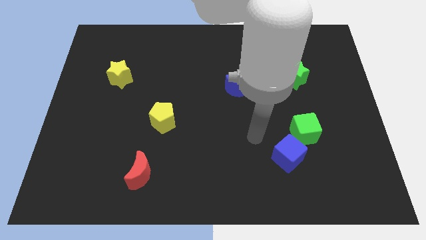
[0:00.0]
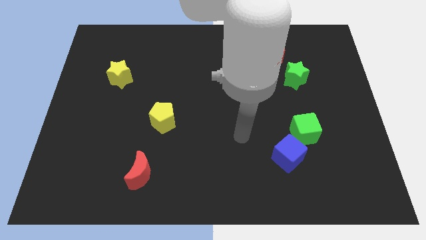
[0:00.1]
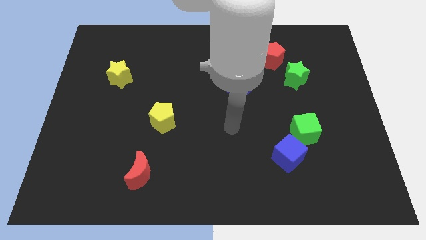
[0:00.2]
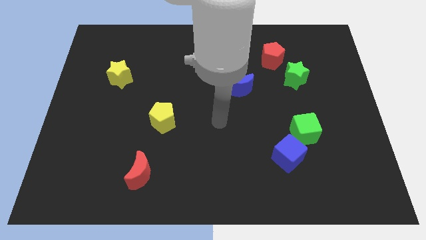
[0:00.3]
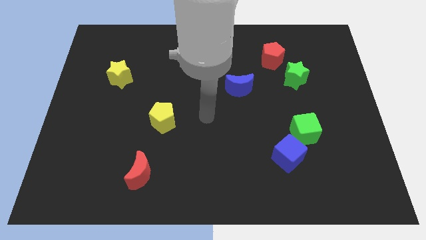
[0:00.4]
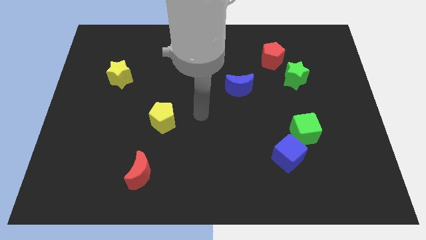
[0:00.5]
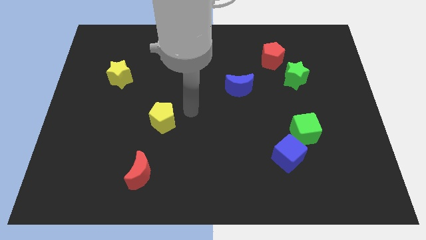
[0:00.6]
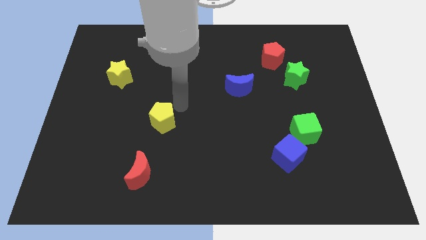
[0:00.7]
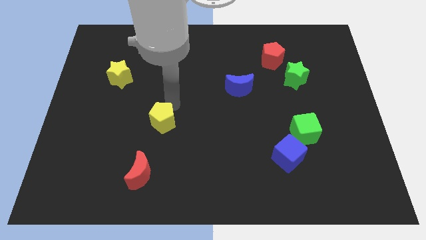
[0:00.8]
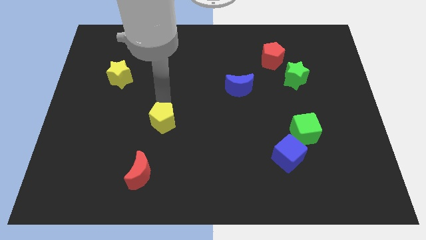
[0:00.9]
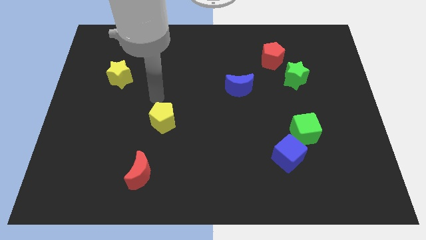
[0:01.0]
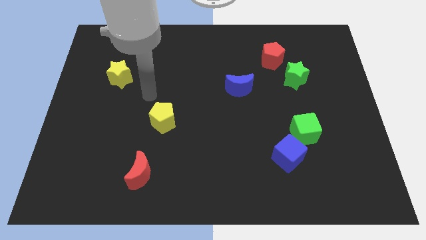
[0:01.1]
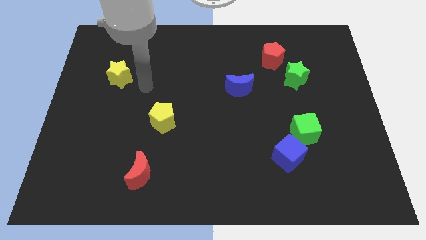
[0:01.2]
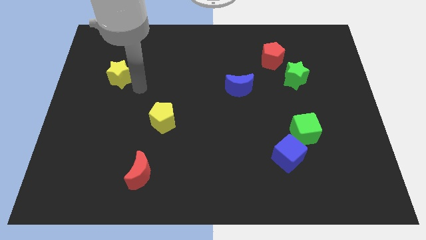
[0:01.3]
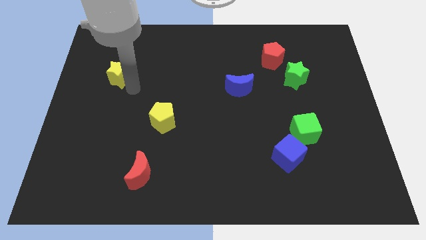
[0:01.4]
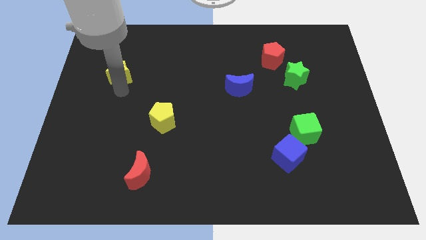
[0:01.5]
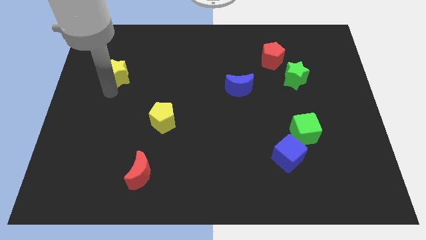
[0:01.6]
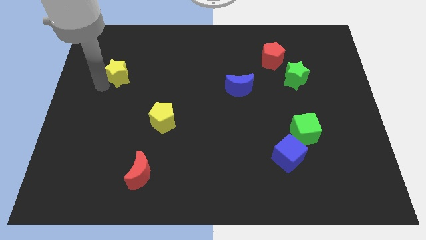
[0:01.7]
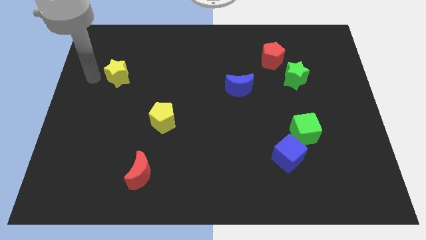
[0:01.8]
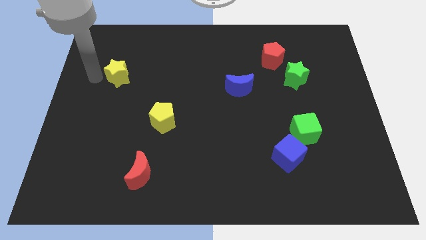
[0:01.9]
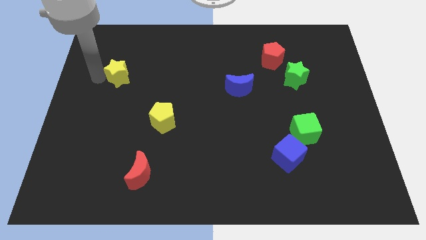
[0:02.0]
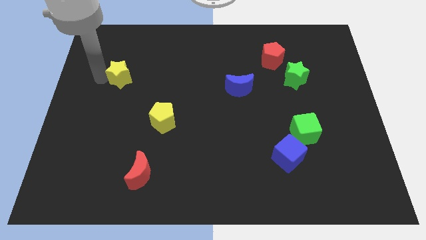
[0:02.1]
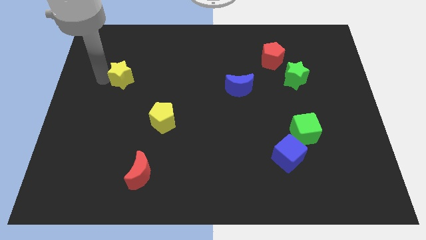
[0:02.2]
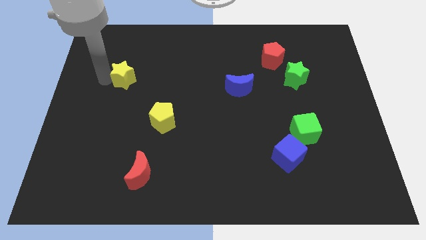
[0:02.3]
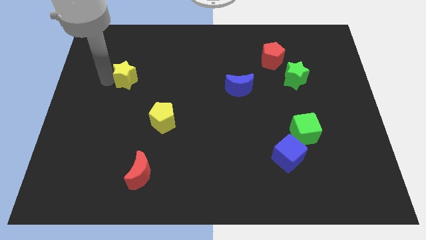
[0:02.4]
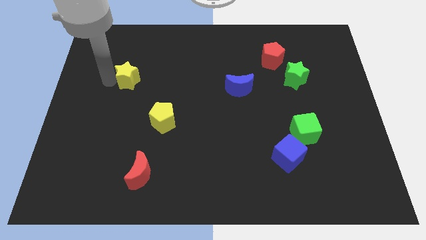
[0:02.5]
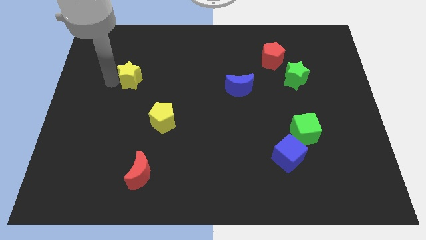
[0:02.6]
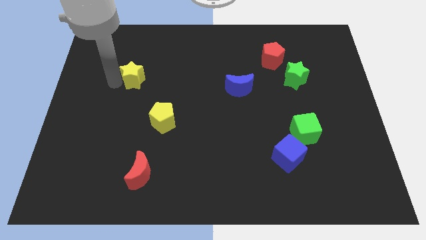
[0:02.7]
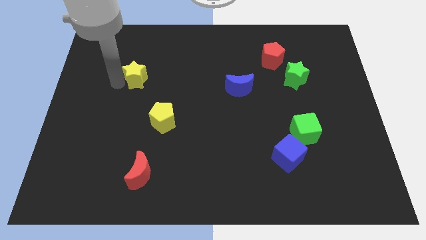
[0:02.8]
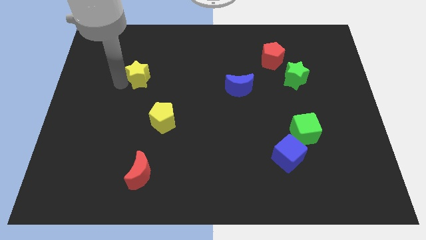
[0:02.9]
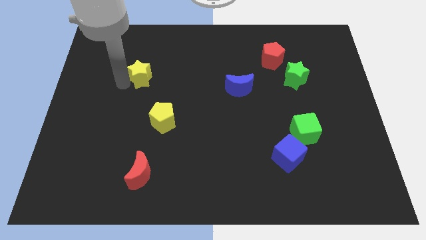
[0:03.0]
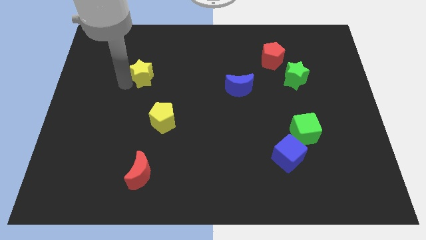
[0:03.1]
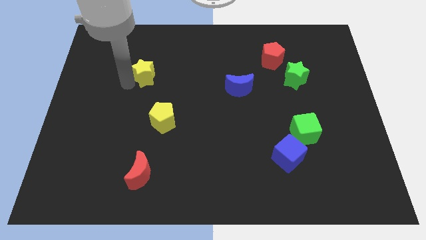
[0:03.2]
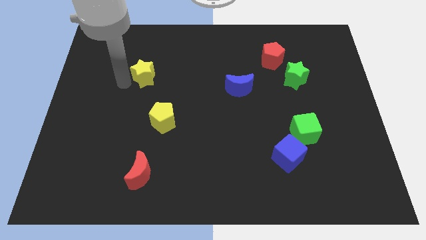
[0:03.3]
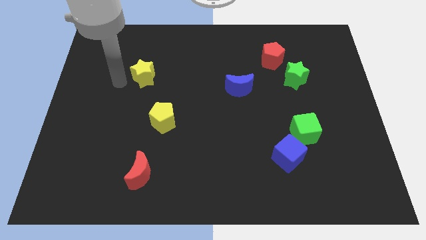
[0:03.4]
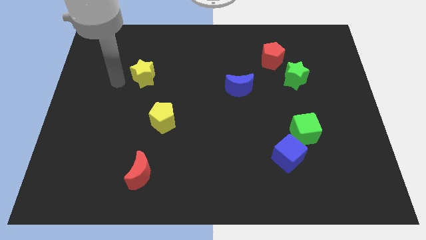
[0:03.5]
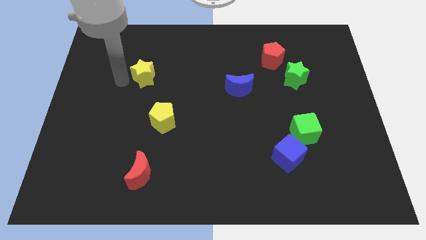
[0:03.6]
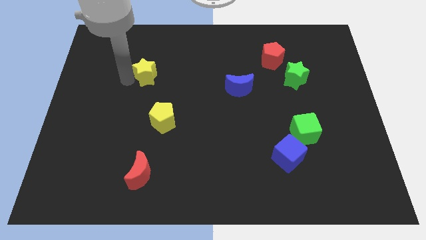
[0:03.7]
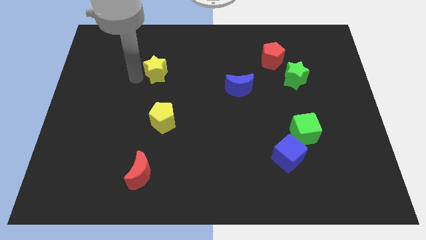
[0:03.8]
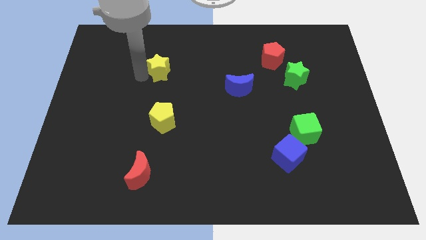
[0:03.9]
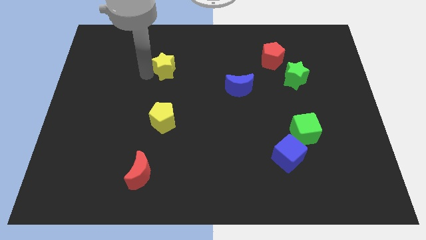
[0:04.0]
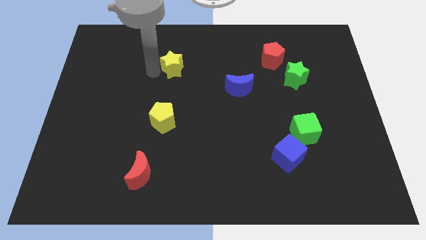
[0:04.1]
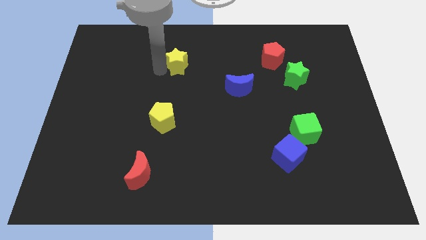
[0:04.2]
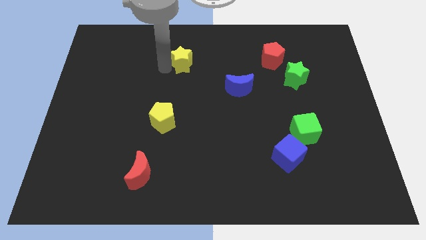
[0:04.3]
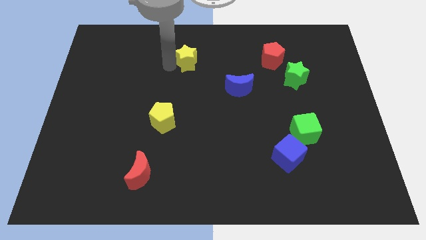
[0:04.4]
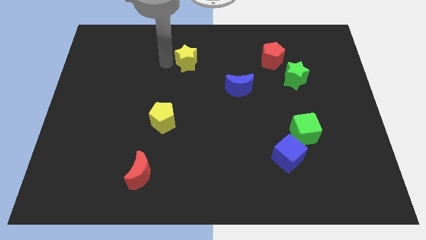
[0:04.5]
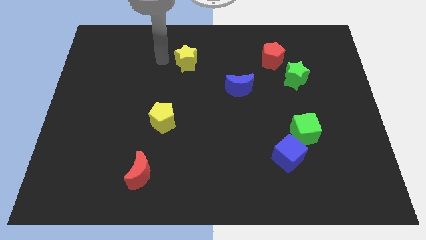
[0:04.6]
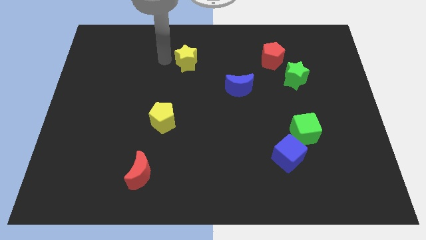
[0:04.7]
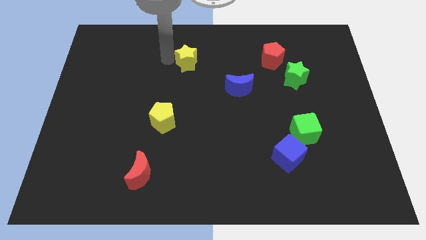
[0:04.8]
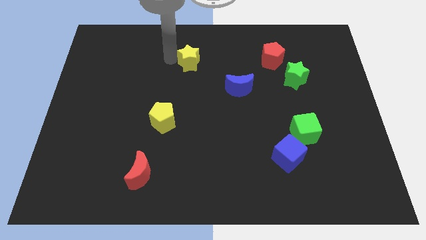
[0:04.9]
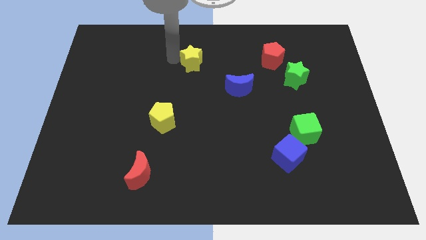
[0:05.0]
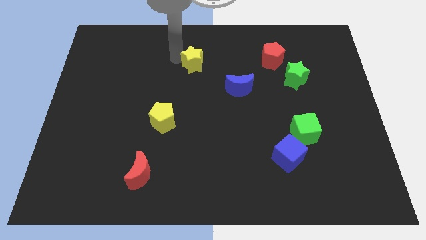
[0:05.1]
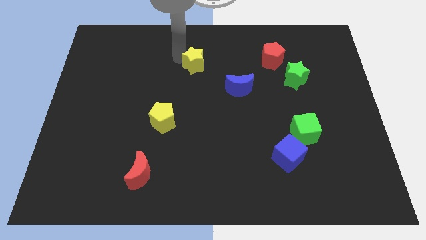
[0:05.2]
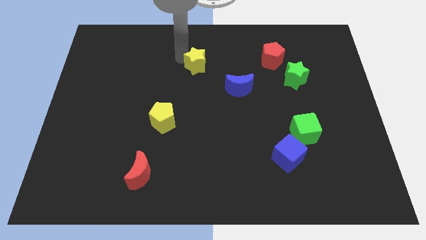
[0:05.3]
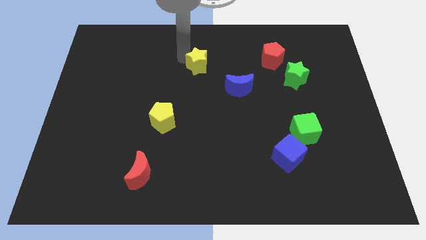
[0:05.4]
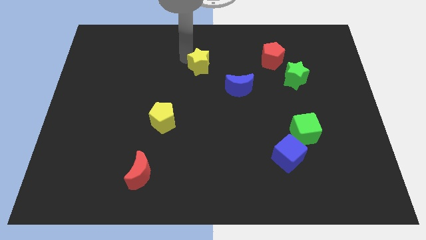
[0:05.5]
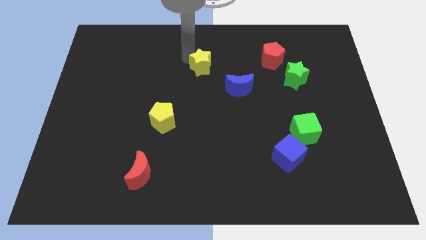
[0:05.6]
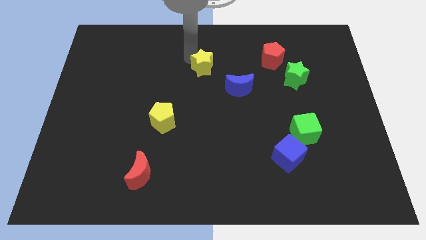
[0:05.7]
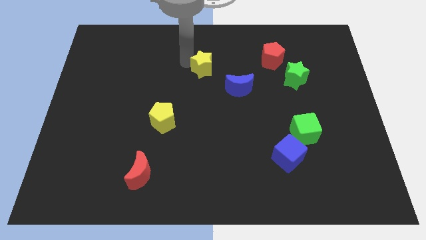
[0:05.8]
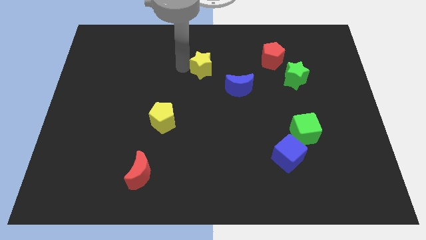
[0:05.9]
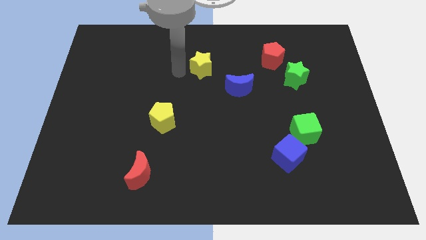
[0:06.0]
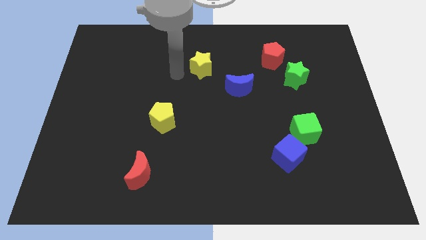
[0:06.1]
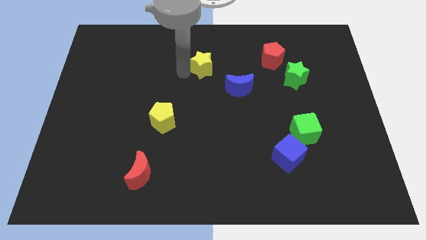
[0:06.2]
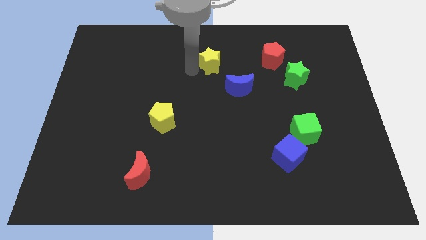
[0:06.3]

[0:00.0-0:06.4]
push the yellow star to the left of the red pentagon
